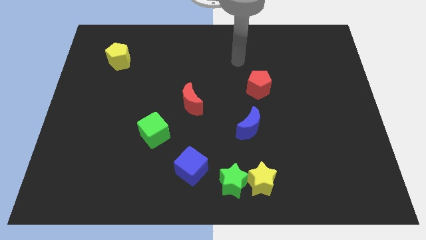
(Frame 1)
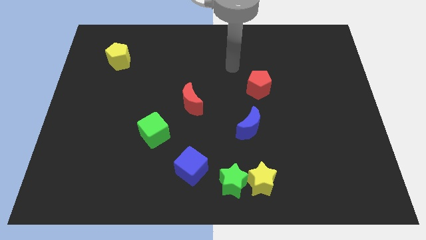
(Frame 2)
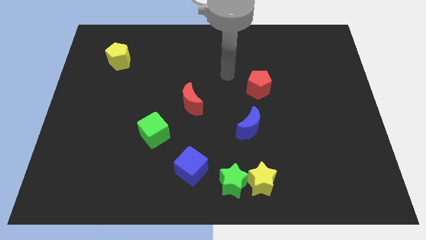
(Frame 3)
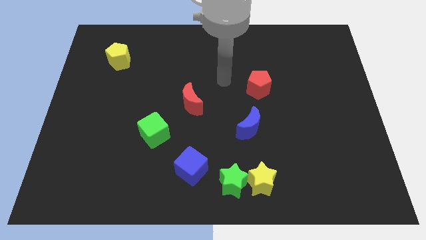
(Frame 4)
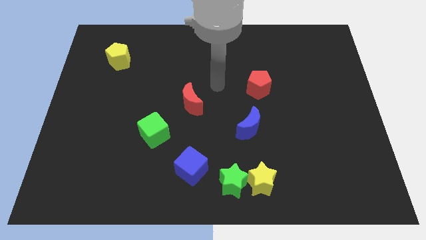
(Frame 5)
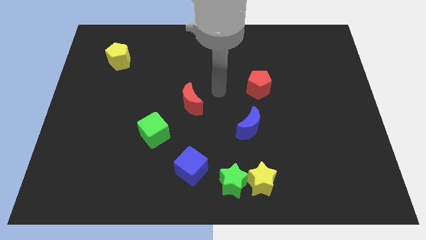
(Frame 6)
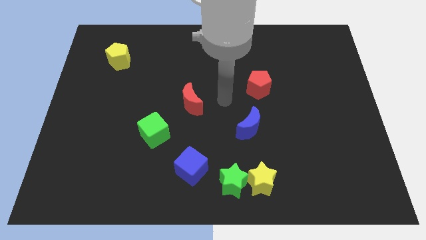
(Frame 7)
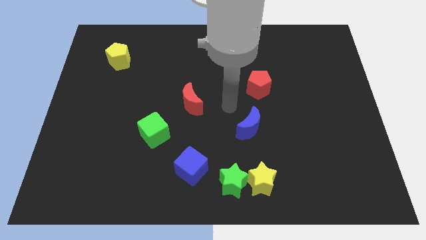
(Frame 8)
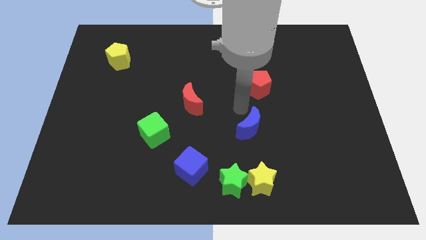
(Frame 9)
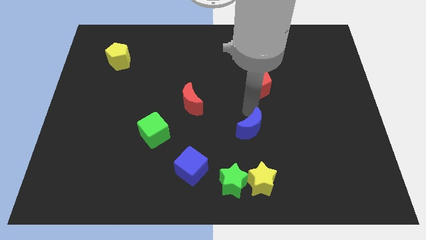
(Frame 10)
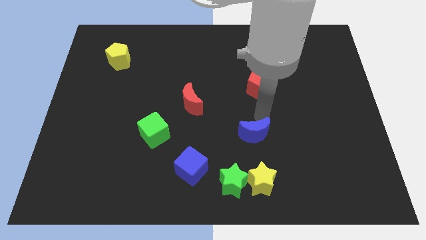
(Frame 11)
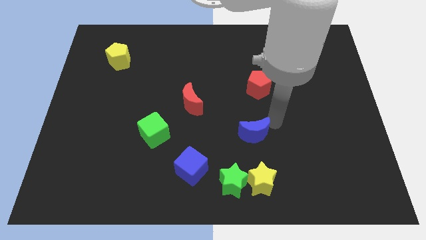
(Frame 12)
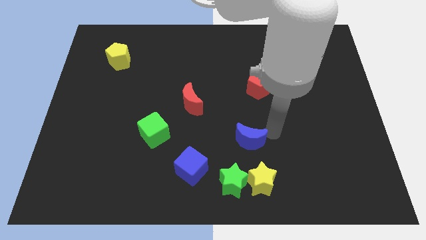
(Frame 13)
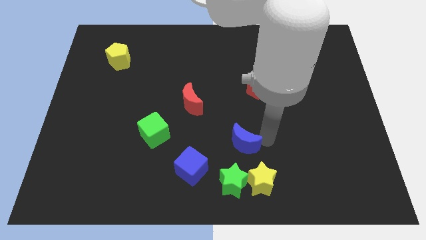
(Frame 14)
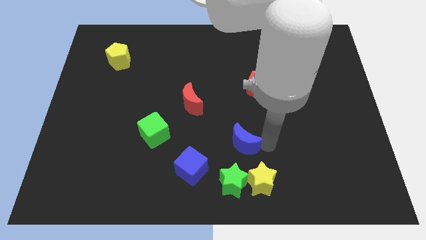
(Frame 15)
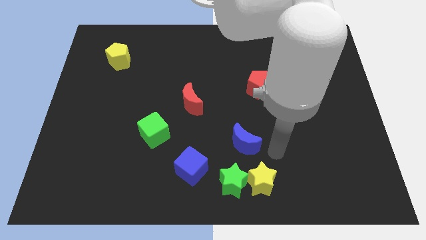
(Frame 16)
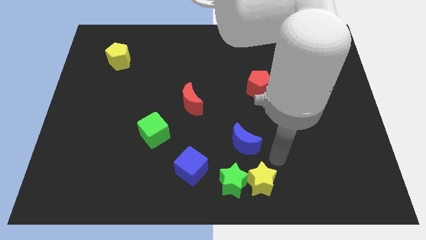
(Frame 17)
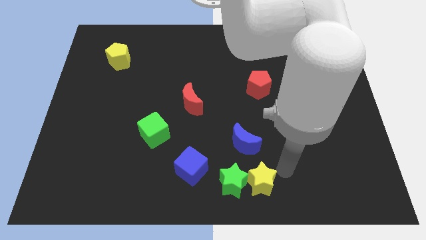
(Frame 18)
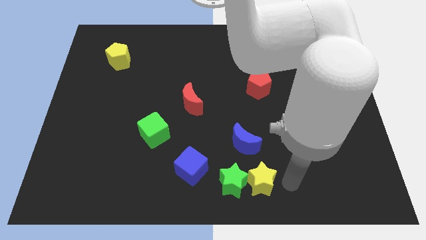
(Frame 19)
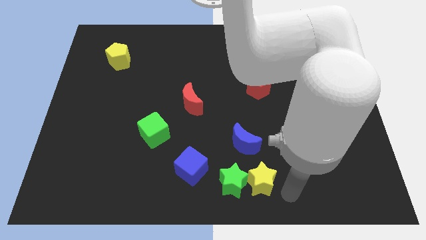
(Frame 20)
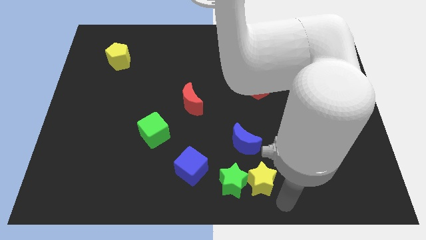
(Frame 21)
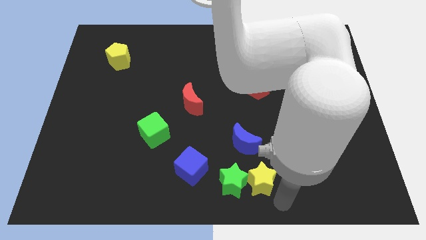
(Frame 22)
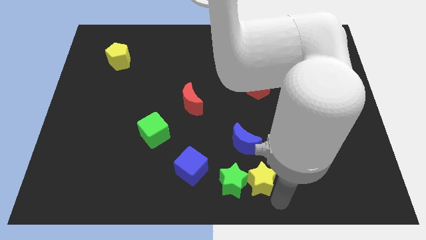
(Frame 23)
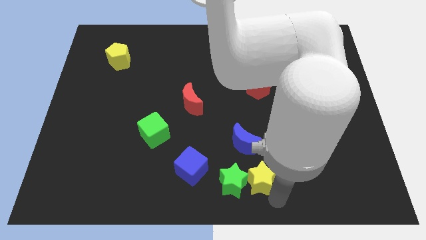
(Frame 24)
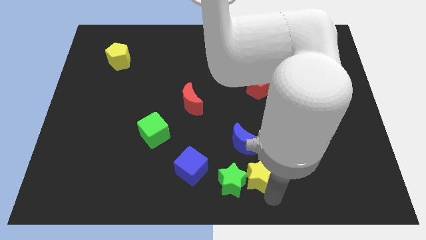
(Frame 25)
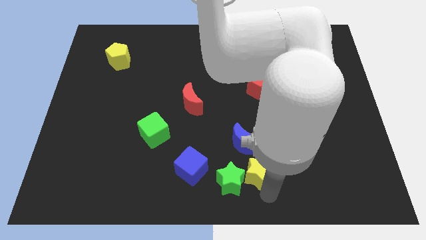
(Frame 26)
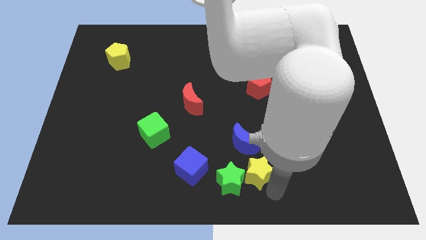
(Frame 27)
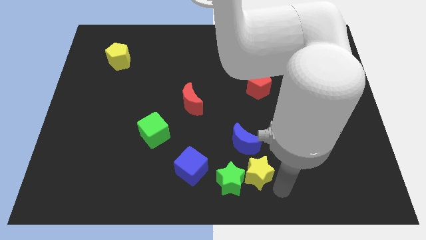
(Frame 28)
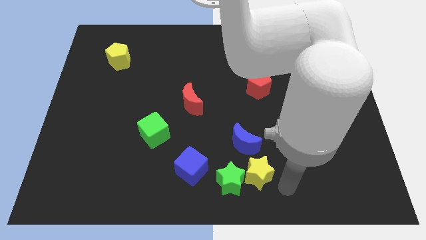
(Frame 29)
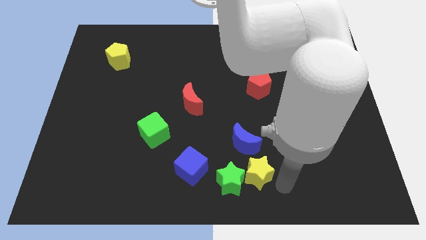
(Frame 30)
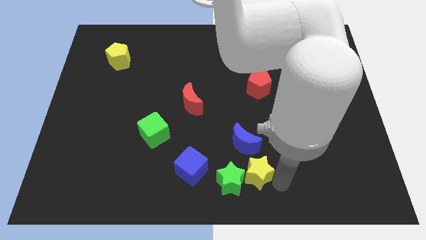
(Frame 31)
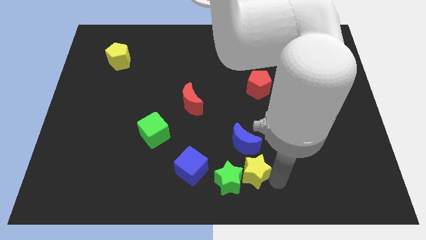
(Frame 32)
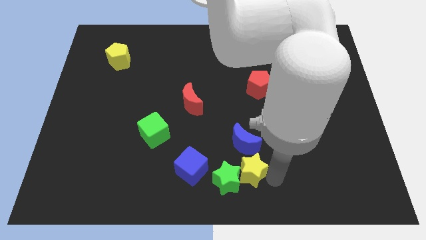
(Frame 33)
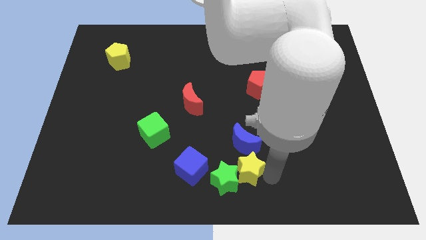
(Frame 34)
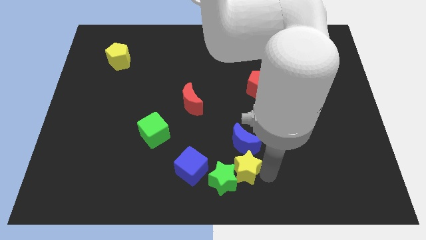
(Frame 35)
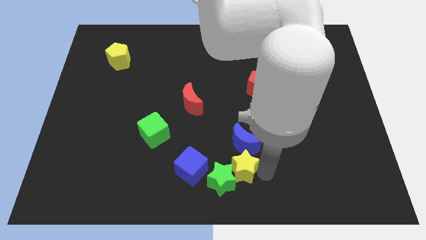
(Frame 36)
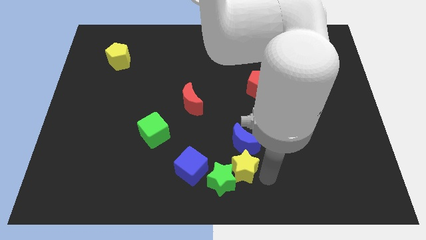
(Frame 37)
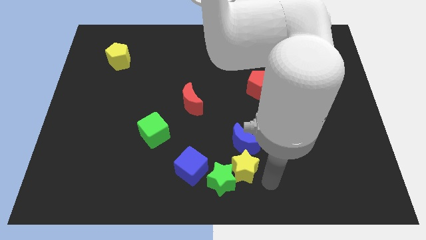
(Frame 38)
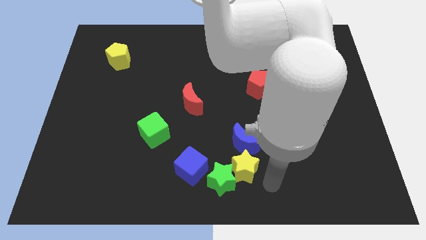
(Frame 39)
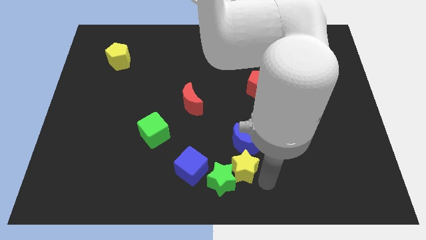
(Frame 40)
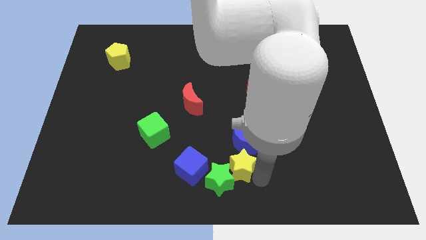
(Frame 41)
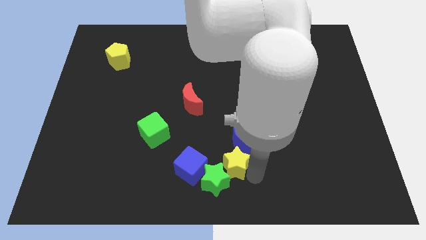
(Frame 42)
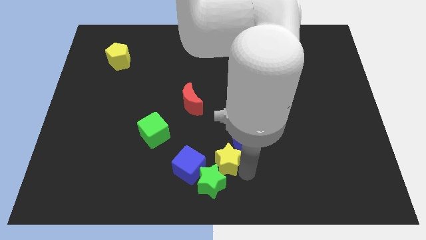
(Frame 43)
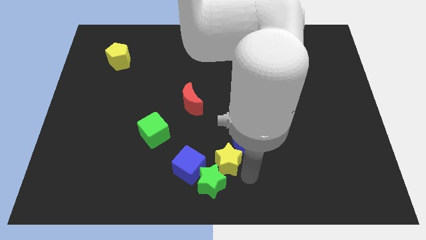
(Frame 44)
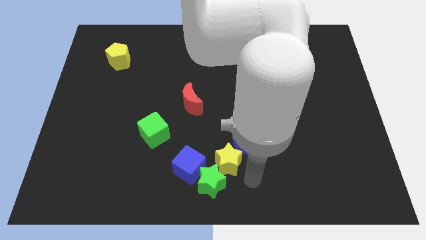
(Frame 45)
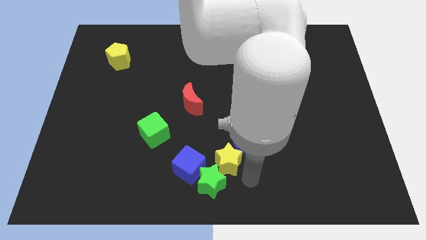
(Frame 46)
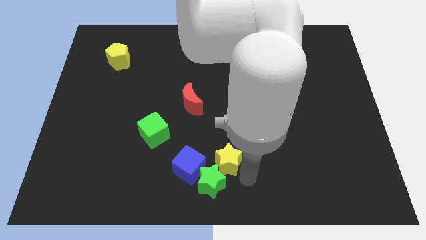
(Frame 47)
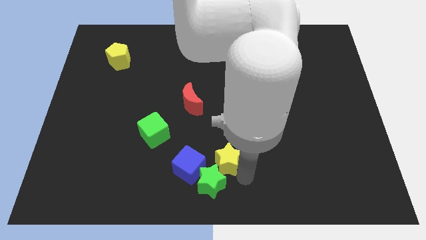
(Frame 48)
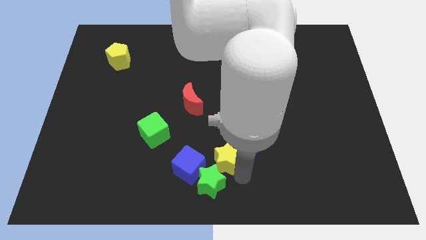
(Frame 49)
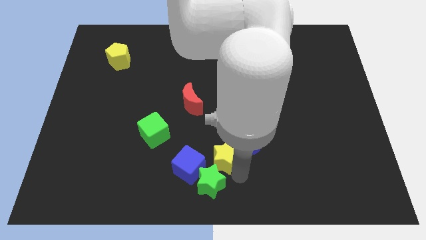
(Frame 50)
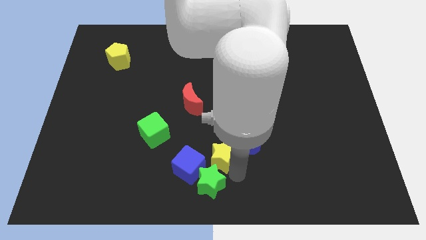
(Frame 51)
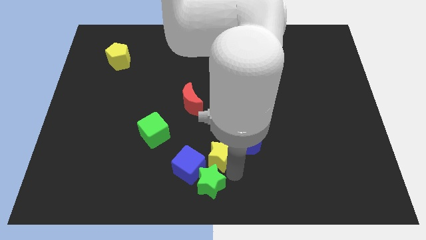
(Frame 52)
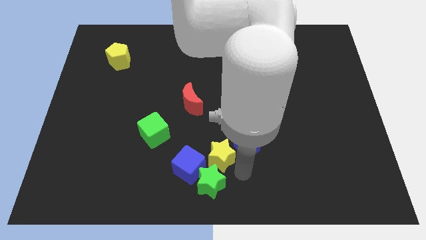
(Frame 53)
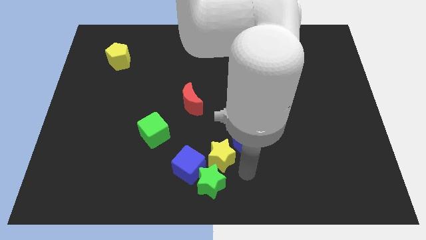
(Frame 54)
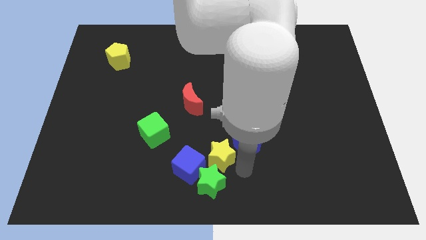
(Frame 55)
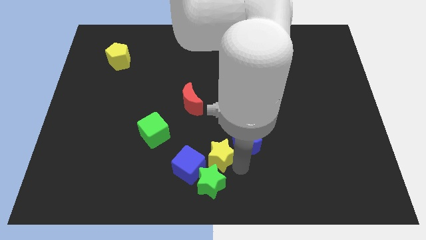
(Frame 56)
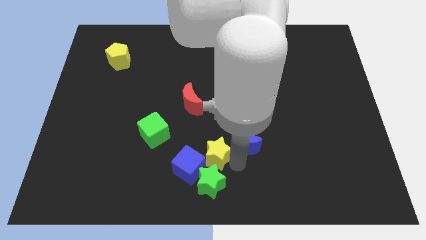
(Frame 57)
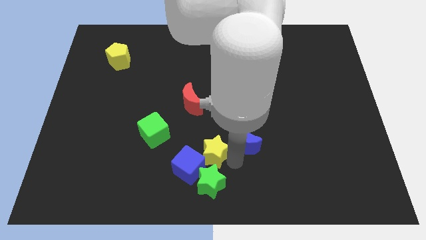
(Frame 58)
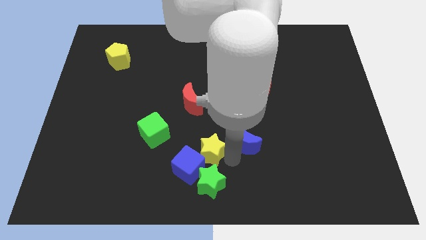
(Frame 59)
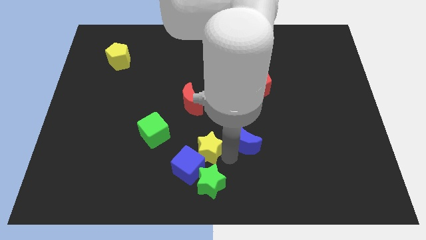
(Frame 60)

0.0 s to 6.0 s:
move the yellow star below the red moon
